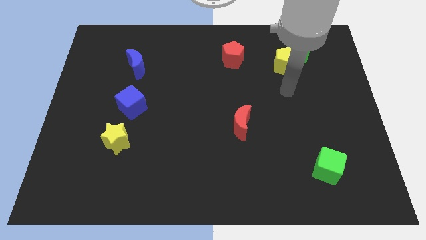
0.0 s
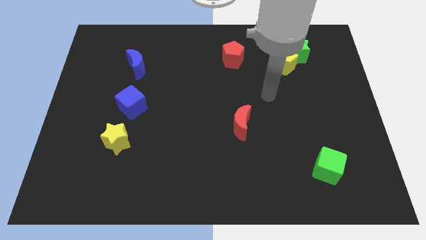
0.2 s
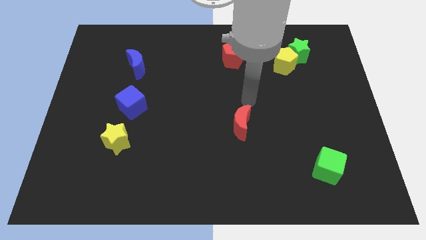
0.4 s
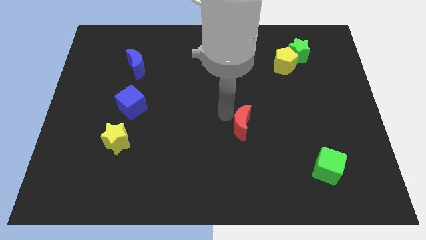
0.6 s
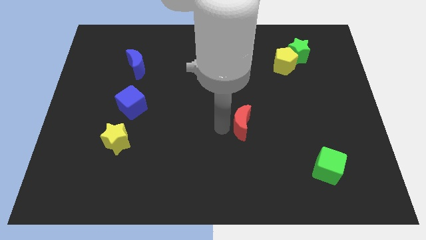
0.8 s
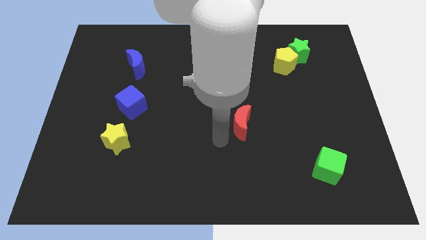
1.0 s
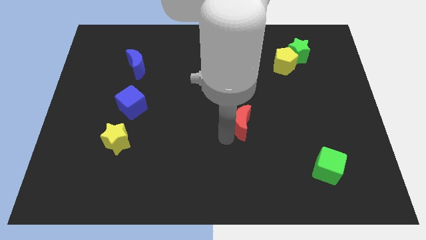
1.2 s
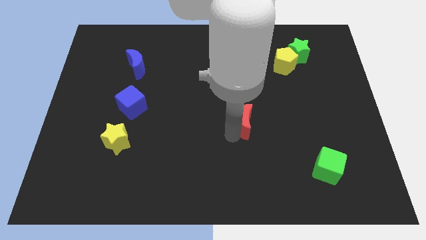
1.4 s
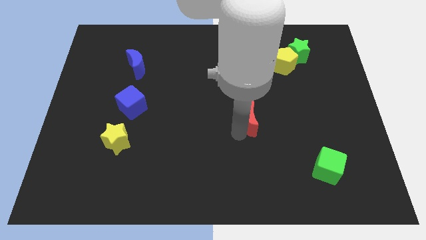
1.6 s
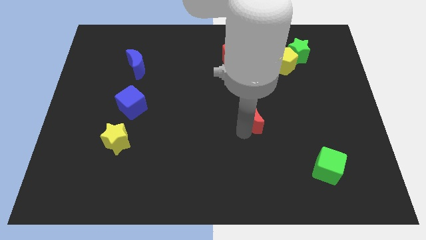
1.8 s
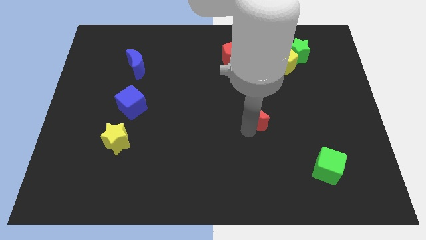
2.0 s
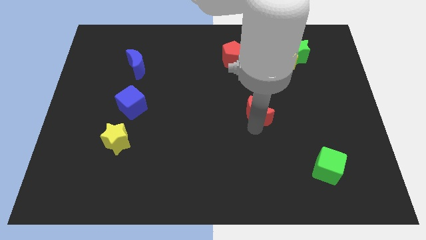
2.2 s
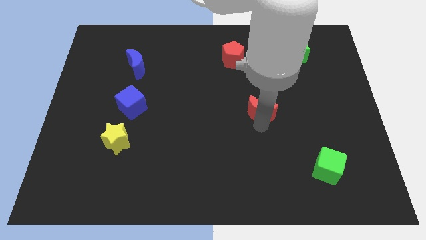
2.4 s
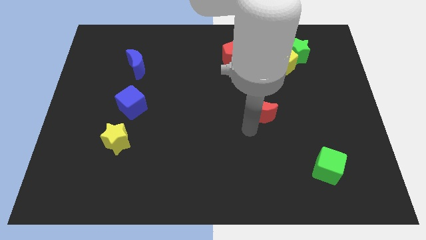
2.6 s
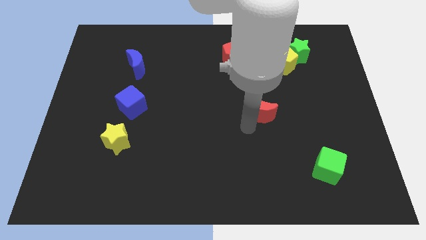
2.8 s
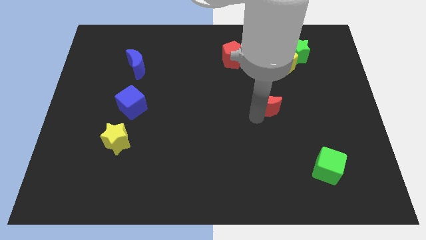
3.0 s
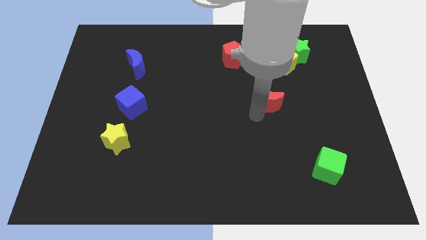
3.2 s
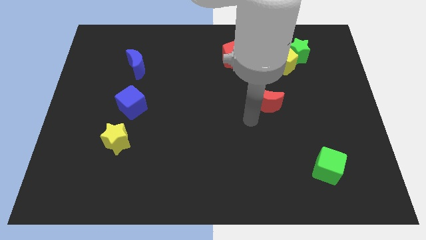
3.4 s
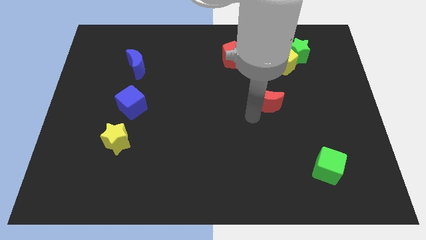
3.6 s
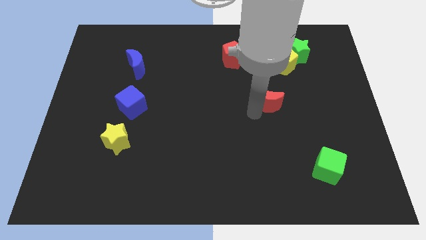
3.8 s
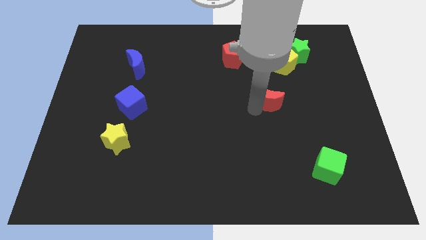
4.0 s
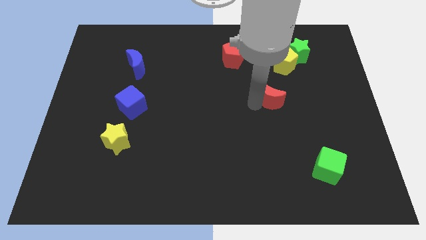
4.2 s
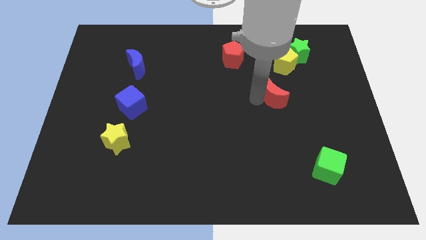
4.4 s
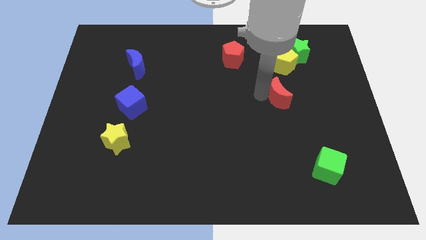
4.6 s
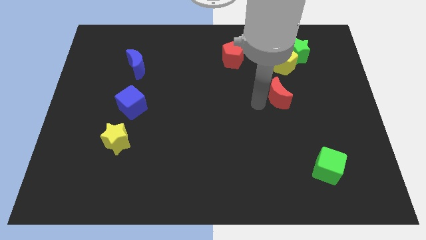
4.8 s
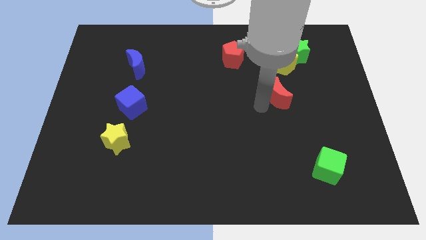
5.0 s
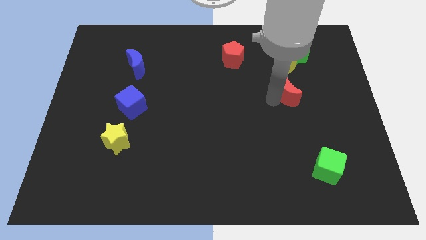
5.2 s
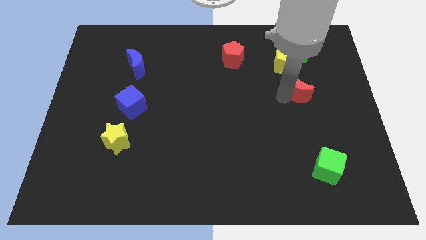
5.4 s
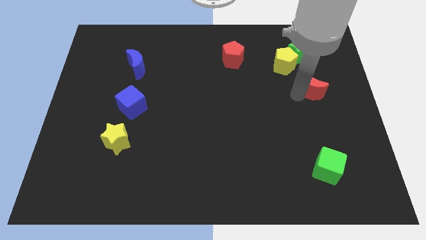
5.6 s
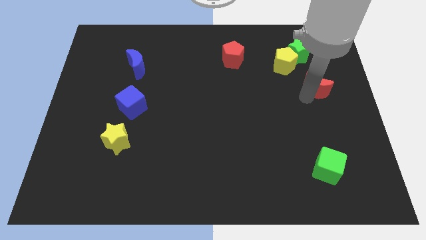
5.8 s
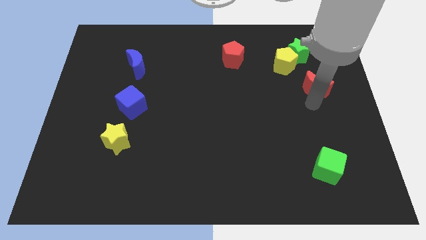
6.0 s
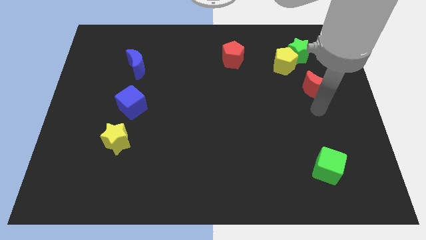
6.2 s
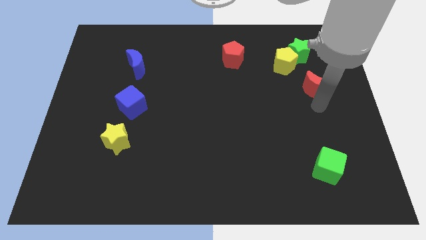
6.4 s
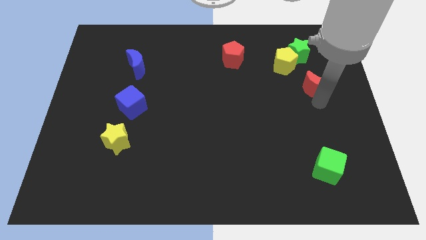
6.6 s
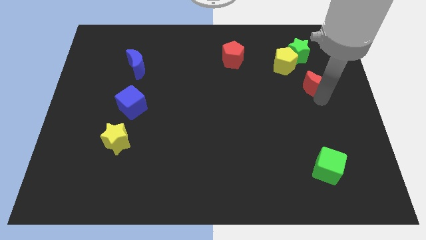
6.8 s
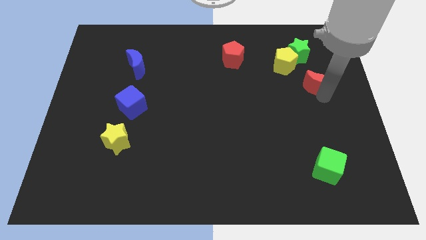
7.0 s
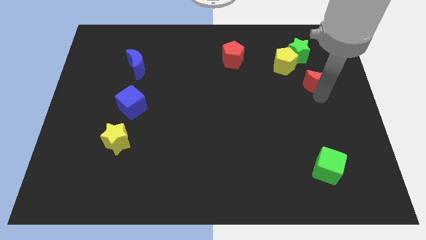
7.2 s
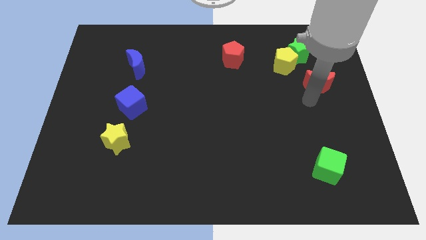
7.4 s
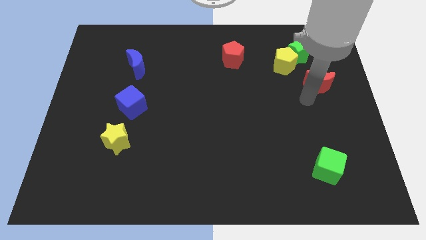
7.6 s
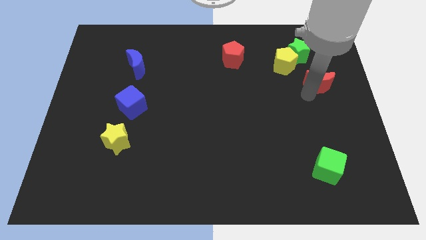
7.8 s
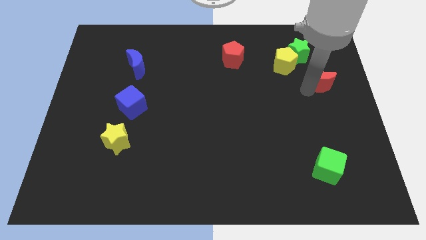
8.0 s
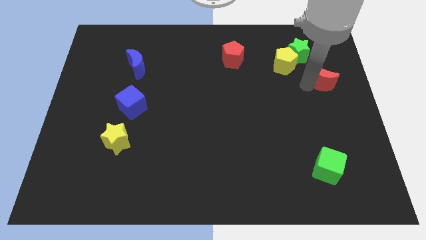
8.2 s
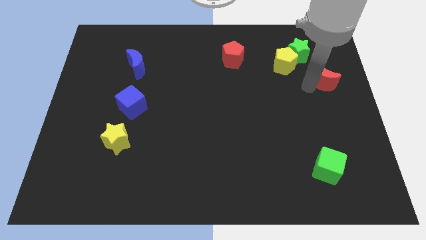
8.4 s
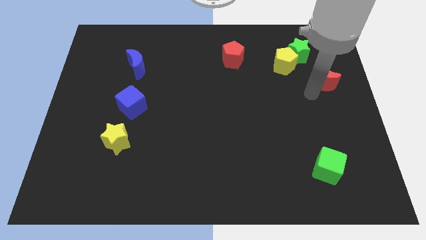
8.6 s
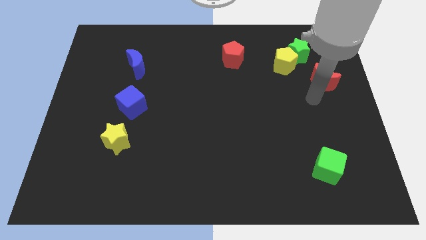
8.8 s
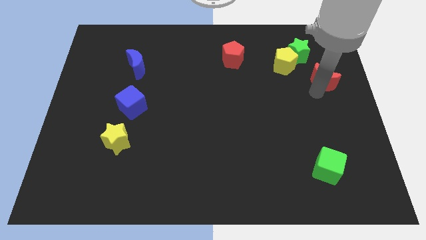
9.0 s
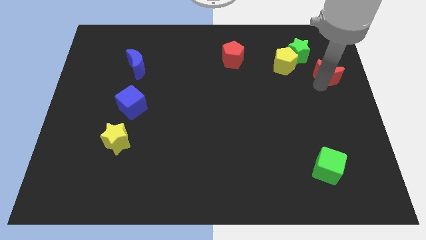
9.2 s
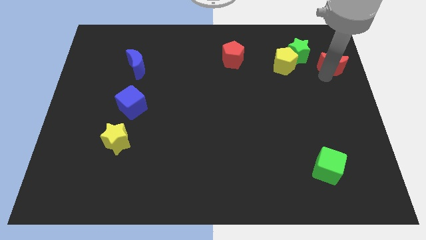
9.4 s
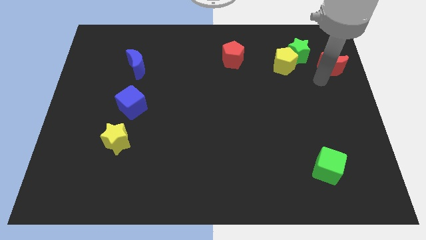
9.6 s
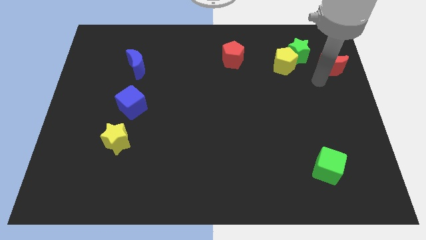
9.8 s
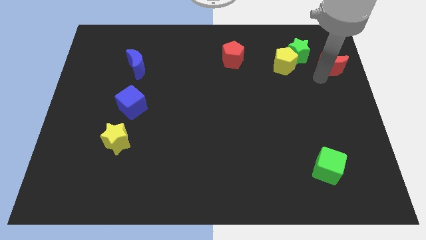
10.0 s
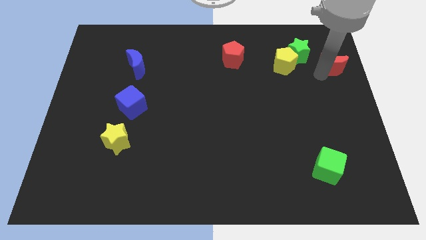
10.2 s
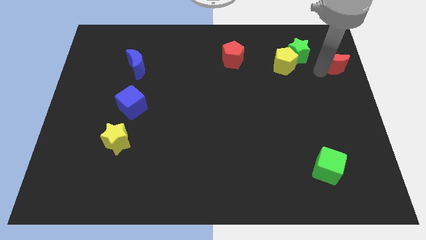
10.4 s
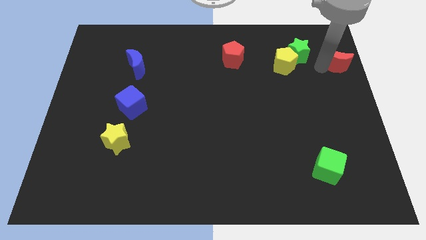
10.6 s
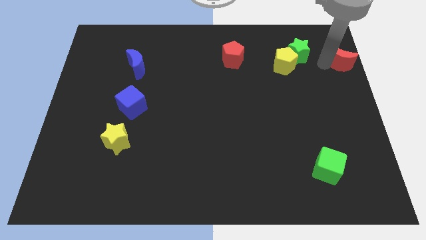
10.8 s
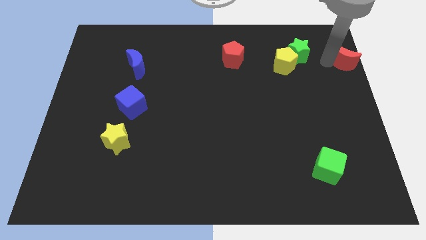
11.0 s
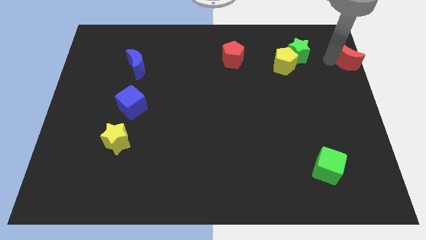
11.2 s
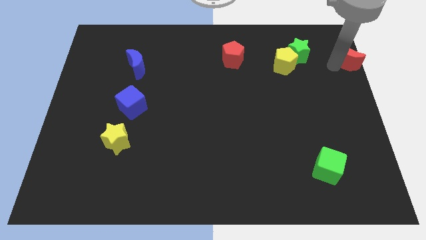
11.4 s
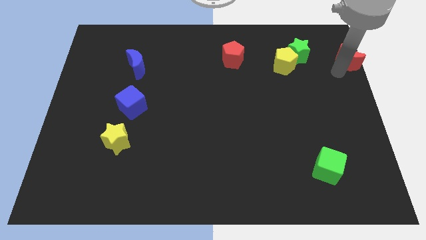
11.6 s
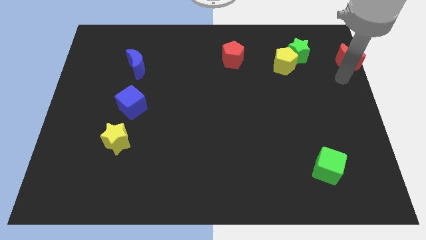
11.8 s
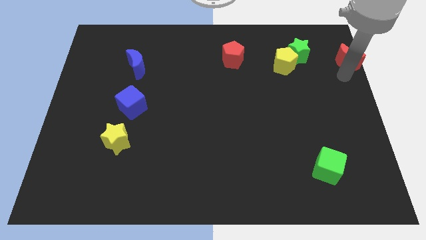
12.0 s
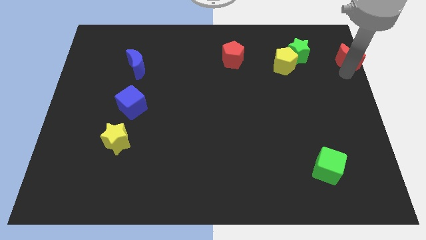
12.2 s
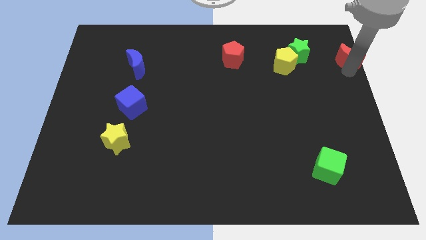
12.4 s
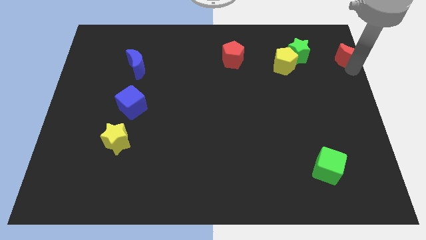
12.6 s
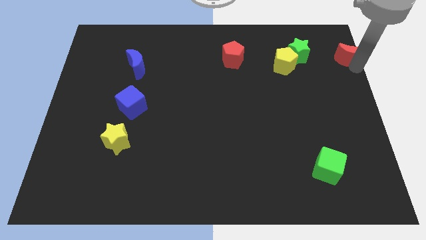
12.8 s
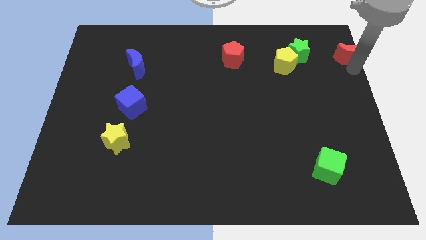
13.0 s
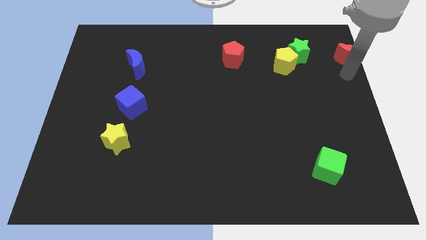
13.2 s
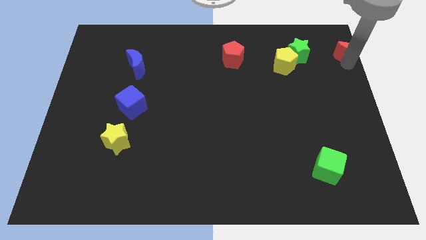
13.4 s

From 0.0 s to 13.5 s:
move the red moon to the upper right corner
